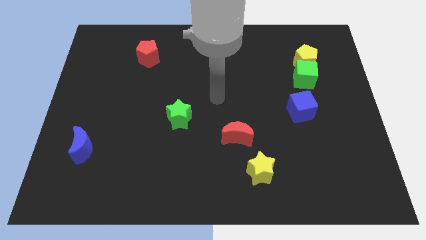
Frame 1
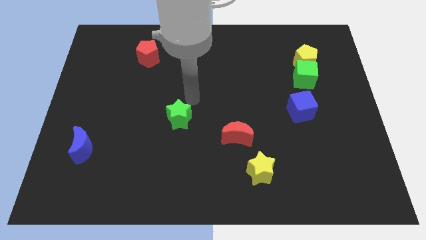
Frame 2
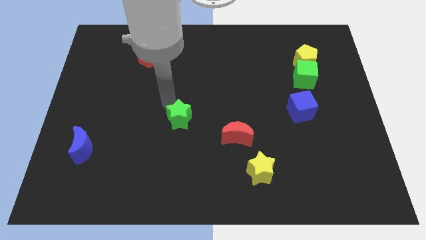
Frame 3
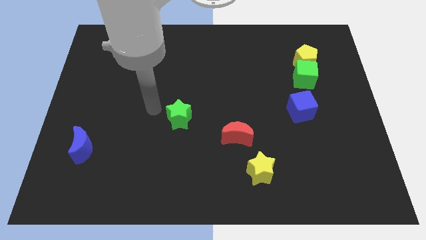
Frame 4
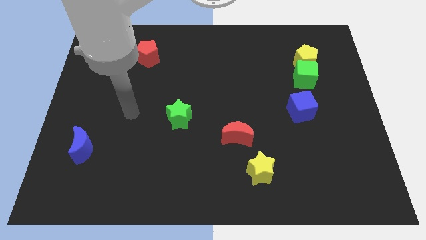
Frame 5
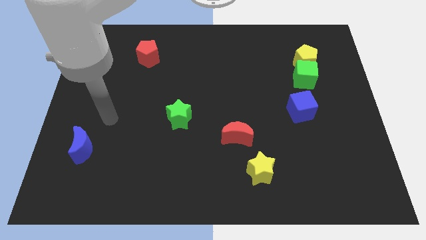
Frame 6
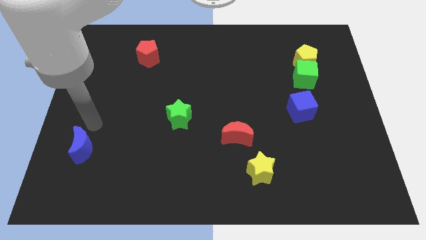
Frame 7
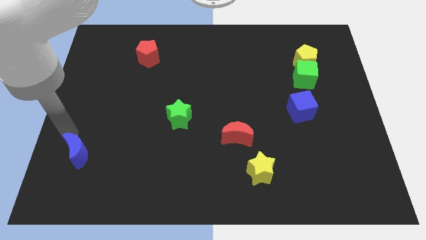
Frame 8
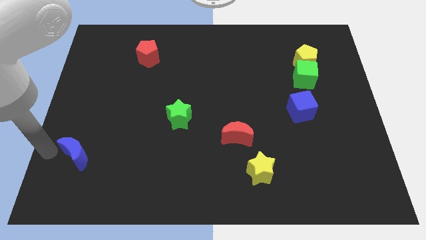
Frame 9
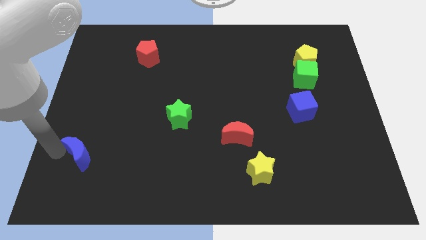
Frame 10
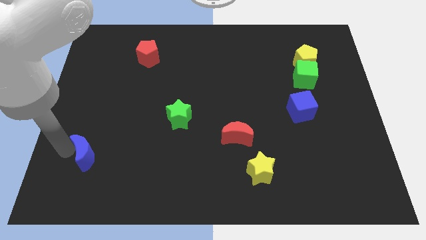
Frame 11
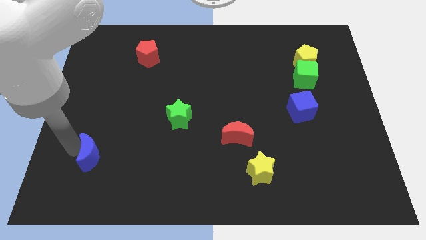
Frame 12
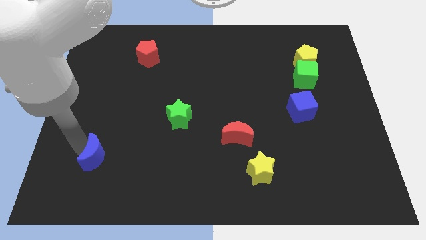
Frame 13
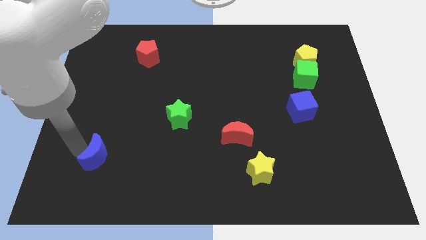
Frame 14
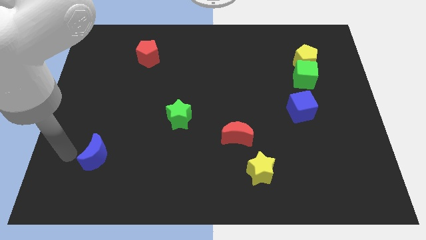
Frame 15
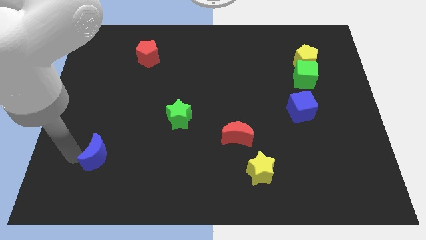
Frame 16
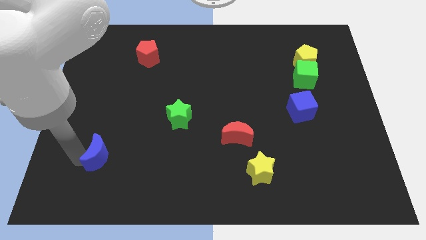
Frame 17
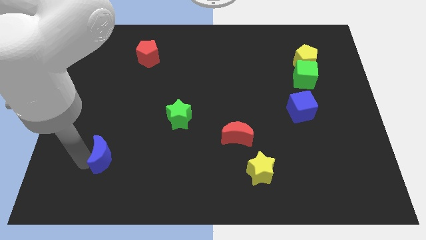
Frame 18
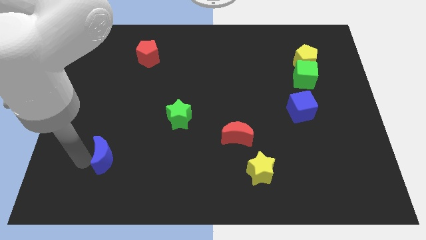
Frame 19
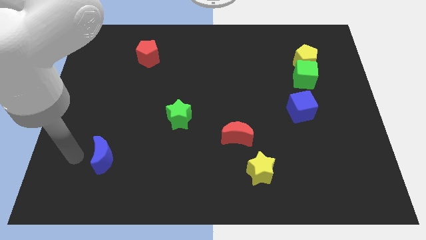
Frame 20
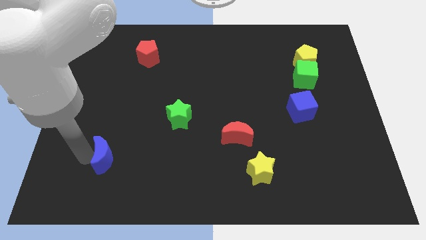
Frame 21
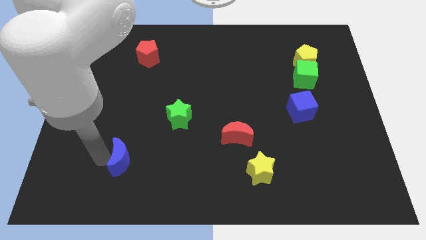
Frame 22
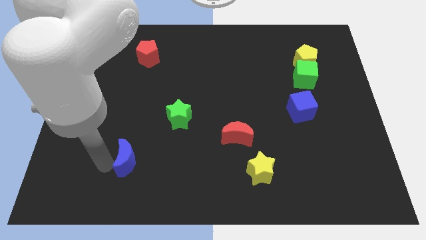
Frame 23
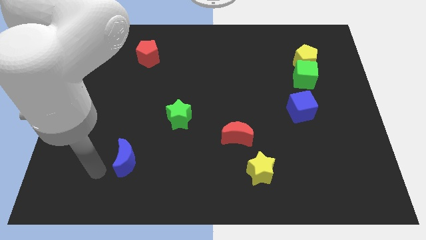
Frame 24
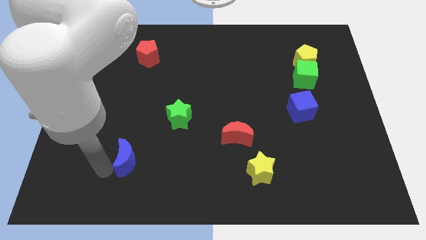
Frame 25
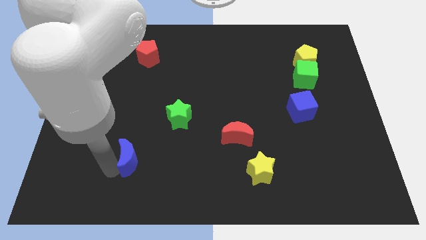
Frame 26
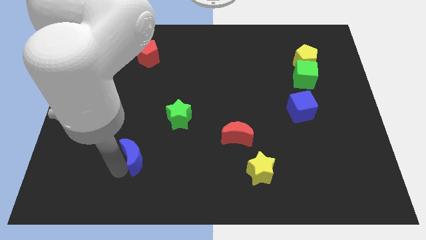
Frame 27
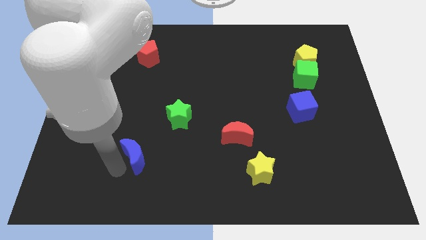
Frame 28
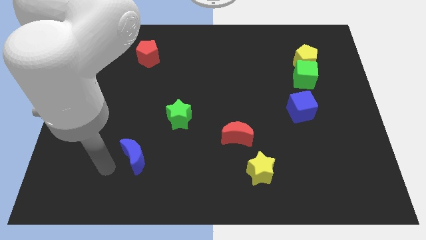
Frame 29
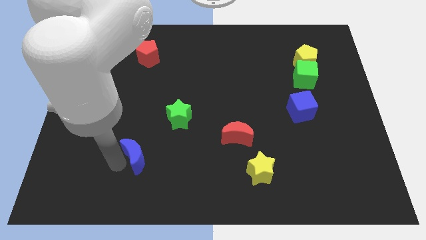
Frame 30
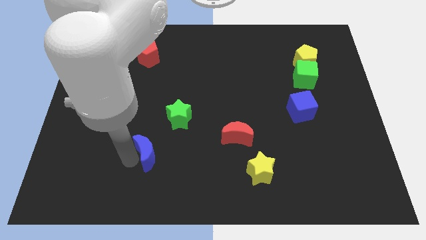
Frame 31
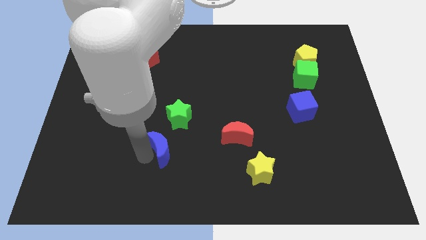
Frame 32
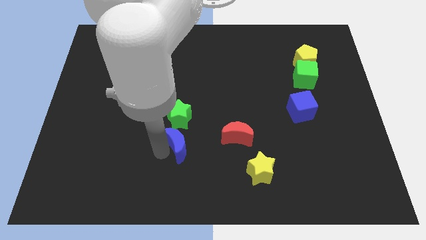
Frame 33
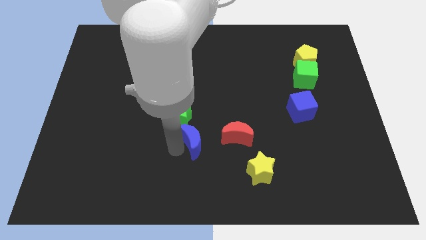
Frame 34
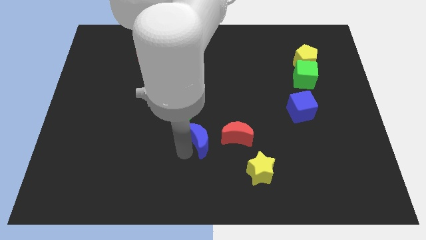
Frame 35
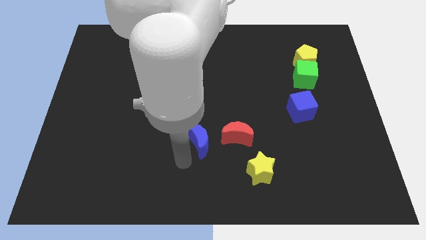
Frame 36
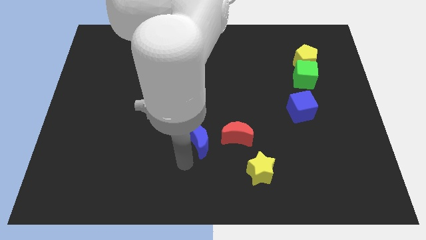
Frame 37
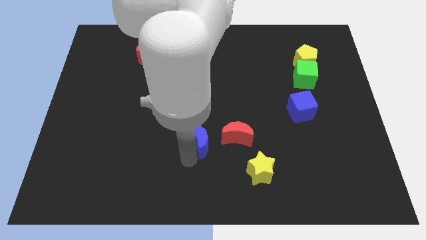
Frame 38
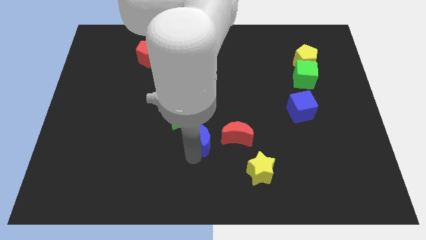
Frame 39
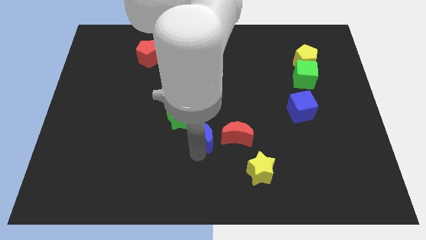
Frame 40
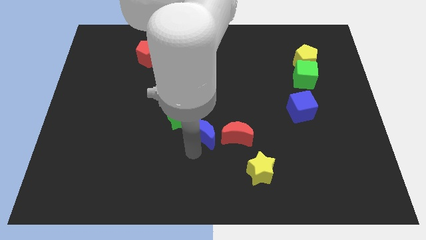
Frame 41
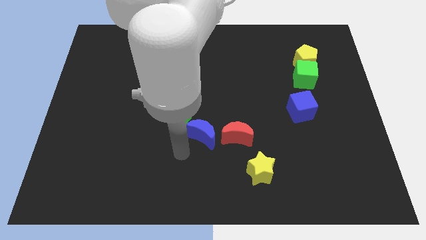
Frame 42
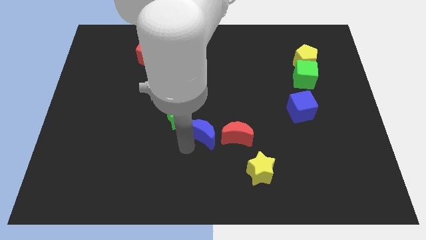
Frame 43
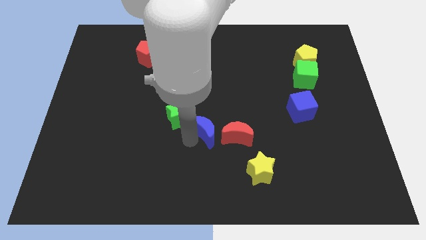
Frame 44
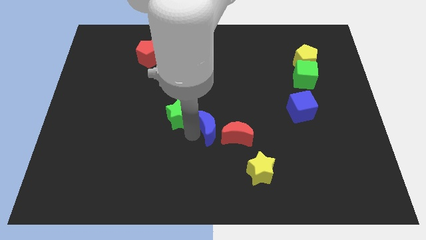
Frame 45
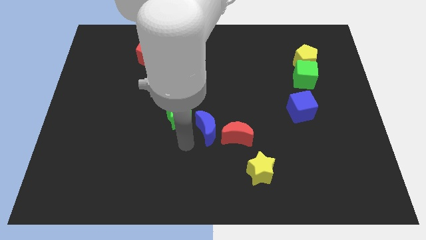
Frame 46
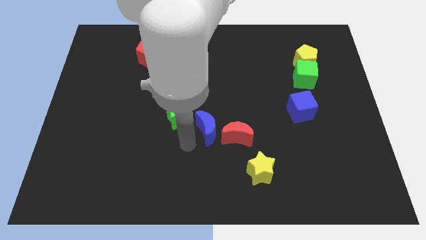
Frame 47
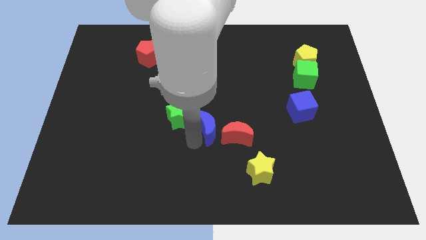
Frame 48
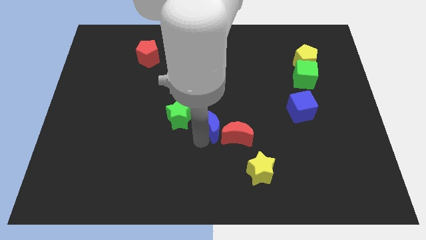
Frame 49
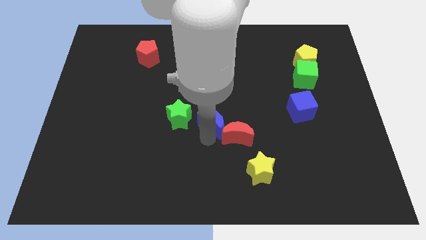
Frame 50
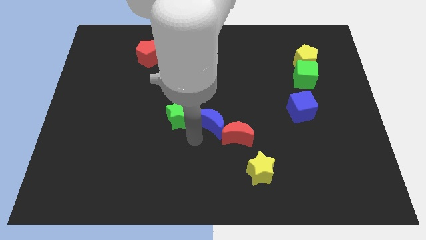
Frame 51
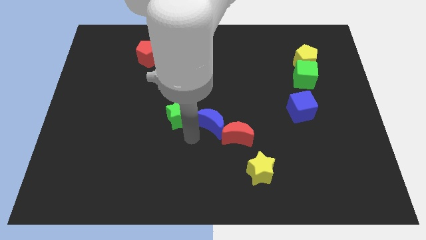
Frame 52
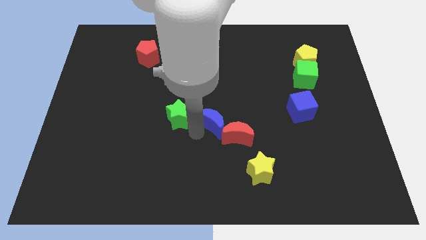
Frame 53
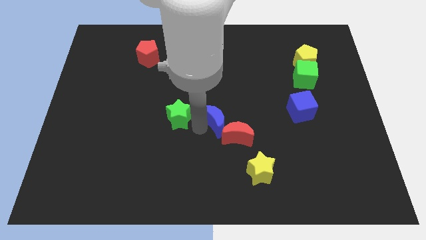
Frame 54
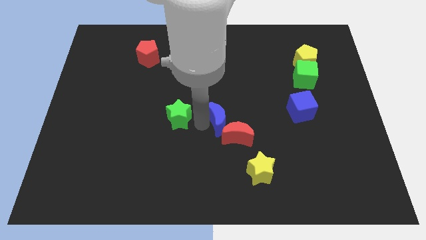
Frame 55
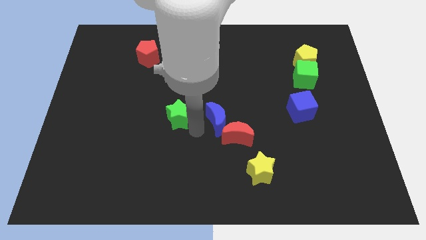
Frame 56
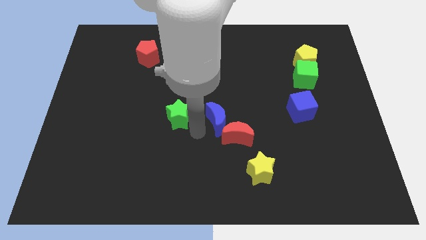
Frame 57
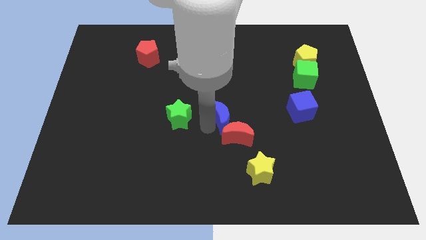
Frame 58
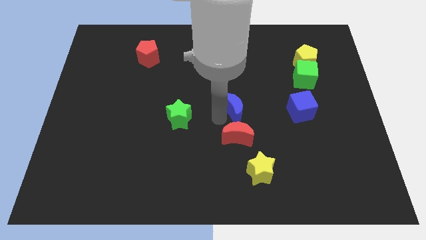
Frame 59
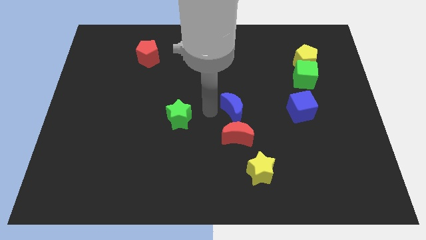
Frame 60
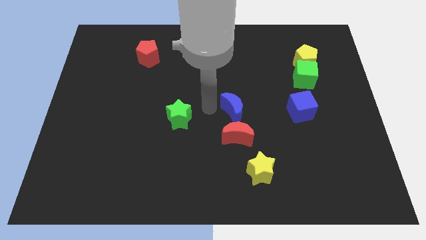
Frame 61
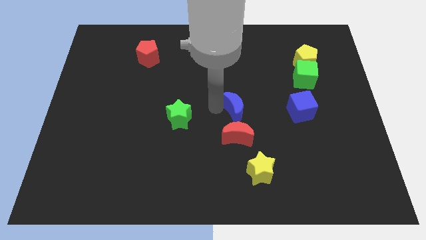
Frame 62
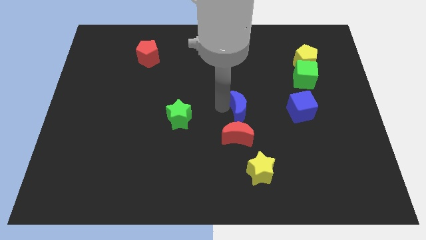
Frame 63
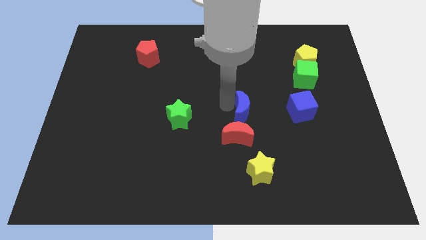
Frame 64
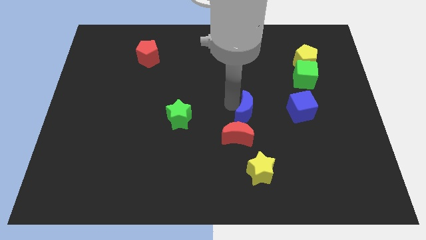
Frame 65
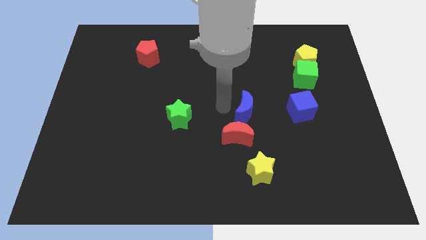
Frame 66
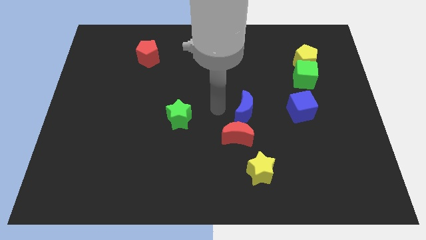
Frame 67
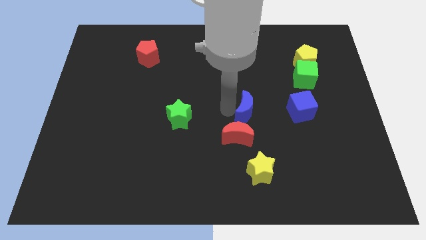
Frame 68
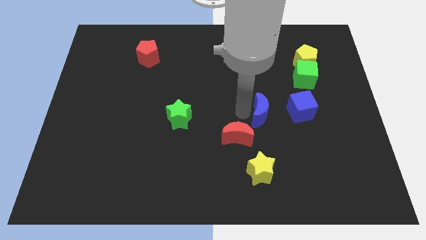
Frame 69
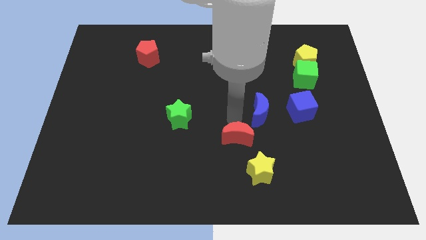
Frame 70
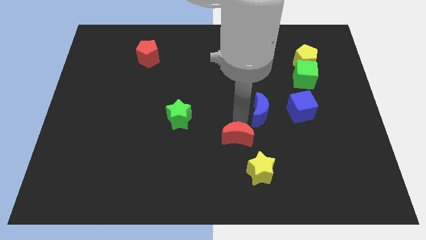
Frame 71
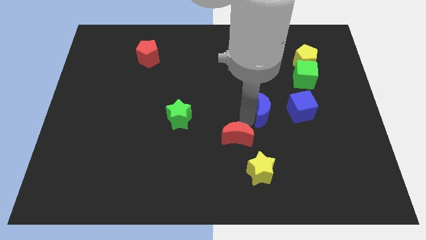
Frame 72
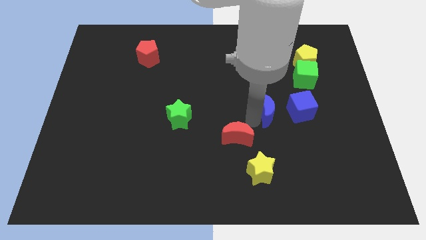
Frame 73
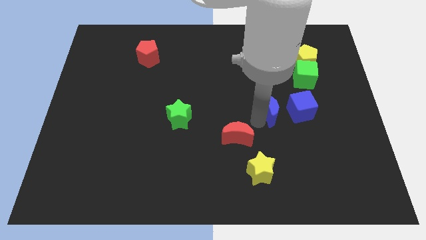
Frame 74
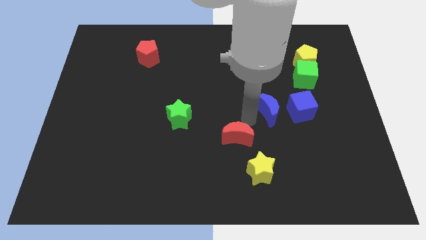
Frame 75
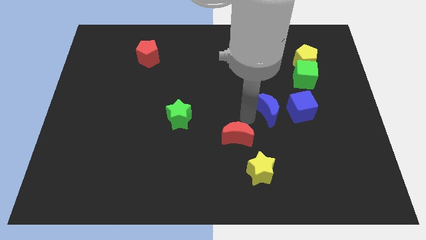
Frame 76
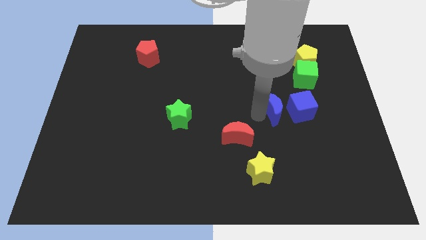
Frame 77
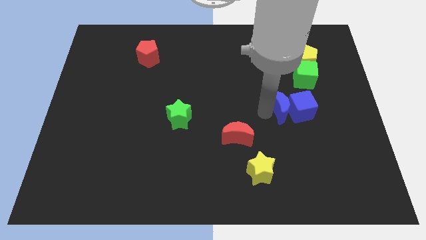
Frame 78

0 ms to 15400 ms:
put the blue moon next to the blue cube
